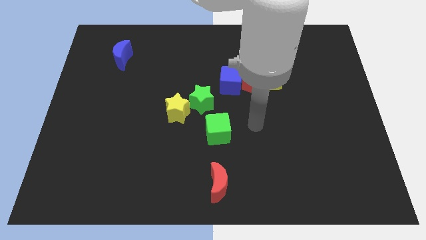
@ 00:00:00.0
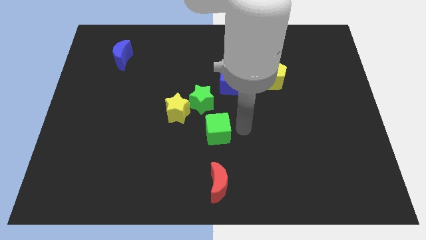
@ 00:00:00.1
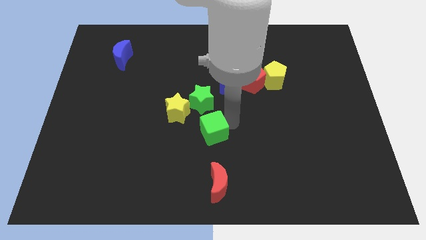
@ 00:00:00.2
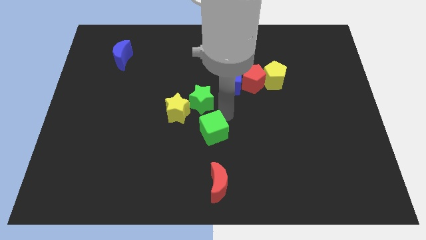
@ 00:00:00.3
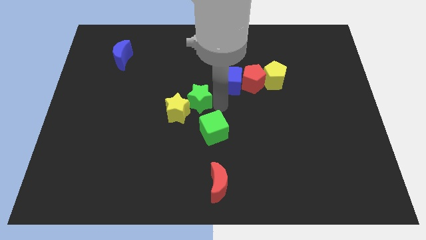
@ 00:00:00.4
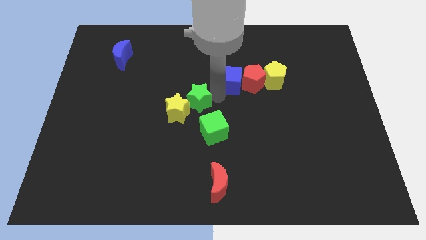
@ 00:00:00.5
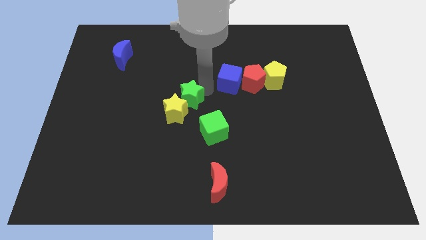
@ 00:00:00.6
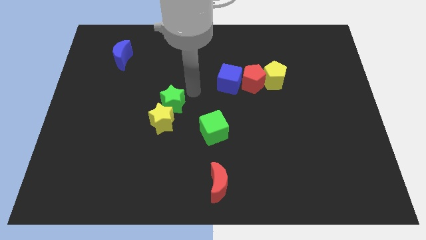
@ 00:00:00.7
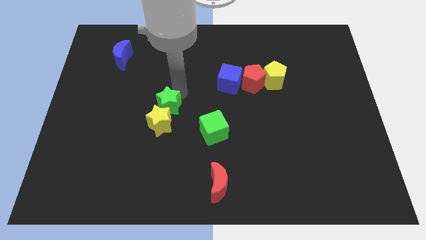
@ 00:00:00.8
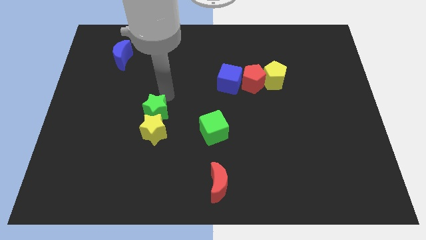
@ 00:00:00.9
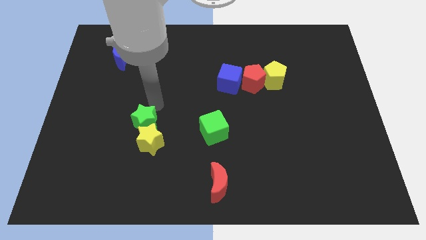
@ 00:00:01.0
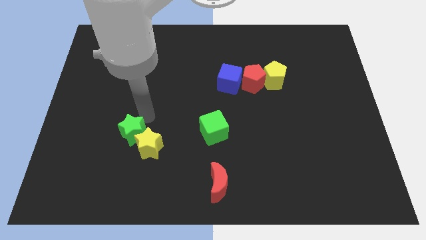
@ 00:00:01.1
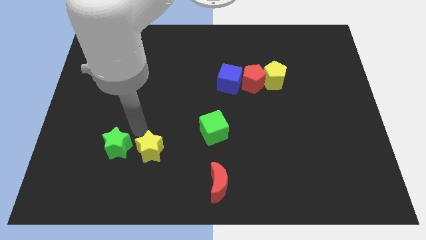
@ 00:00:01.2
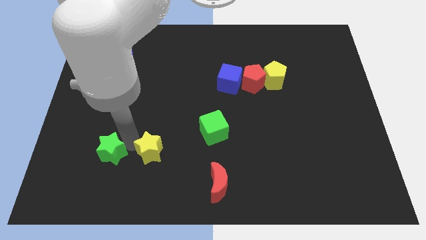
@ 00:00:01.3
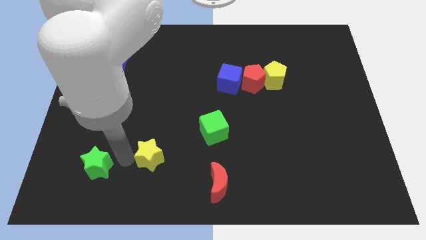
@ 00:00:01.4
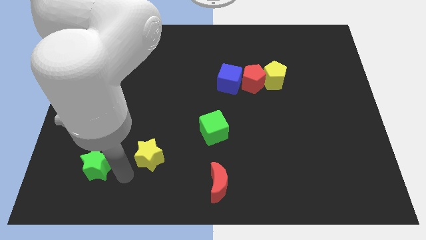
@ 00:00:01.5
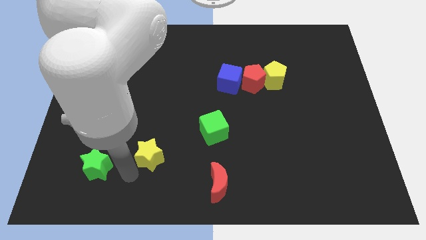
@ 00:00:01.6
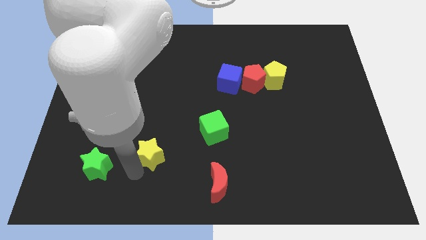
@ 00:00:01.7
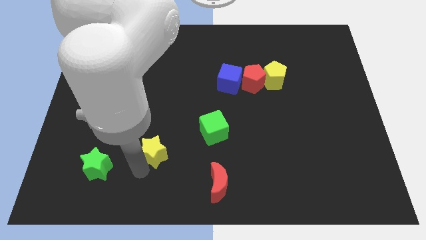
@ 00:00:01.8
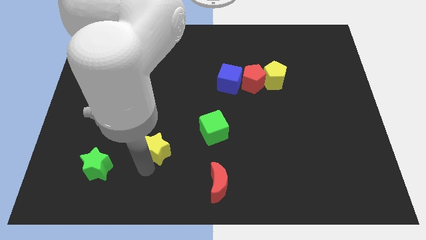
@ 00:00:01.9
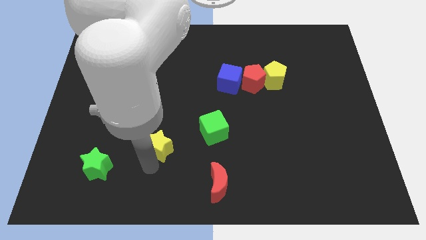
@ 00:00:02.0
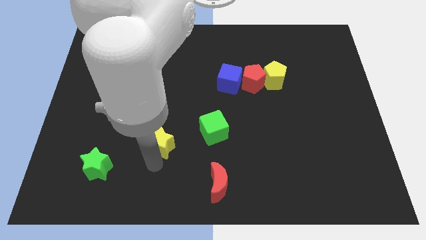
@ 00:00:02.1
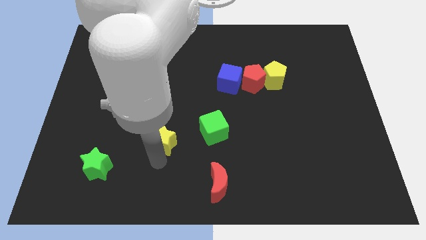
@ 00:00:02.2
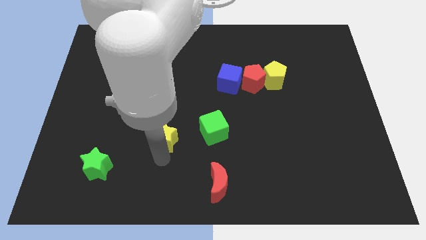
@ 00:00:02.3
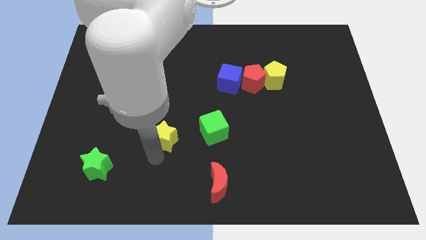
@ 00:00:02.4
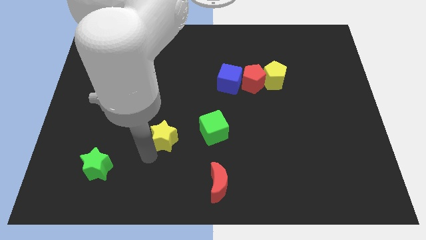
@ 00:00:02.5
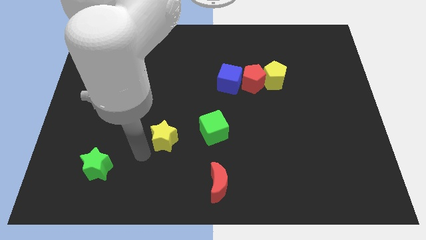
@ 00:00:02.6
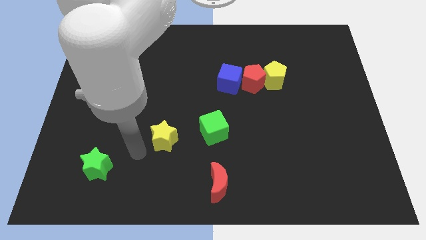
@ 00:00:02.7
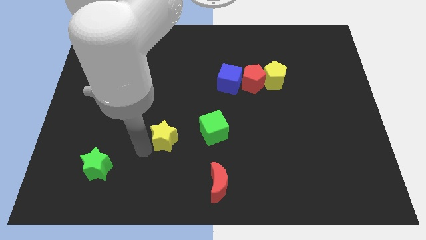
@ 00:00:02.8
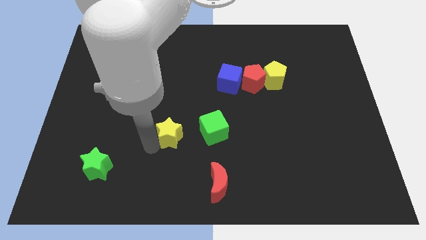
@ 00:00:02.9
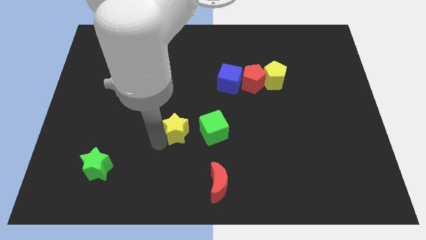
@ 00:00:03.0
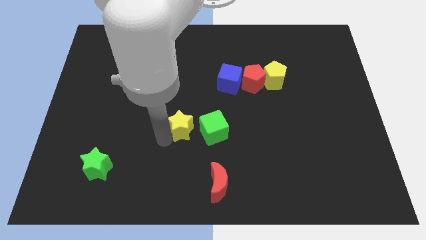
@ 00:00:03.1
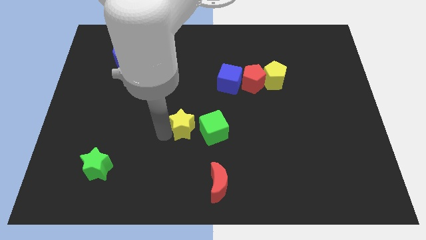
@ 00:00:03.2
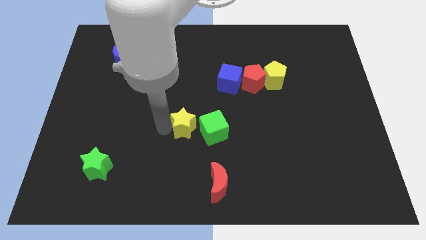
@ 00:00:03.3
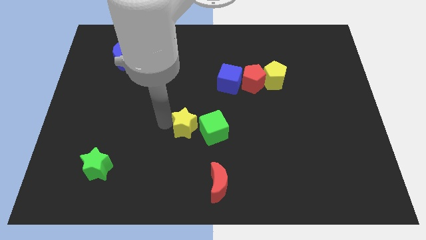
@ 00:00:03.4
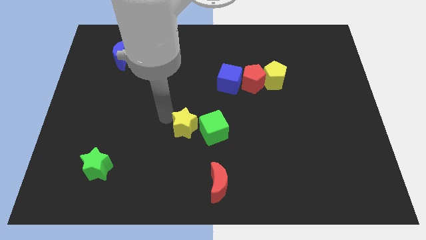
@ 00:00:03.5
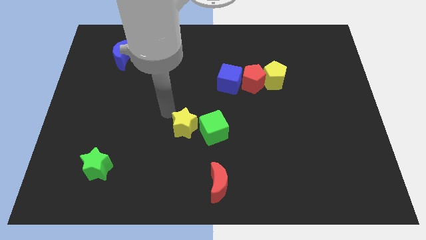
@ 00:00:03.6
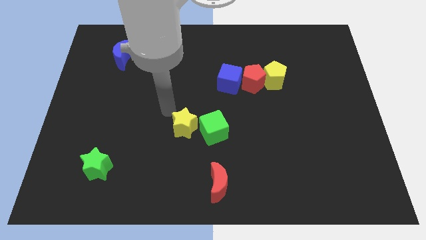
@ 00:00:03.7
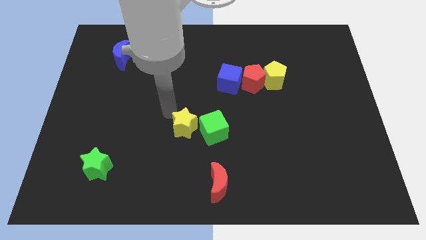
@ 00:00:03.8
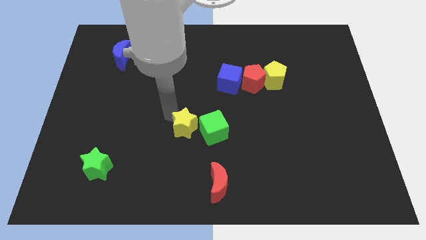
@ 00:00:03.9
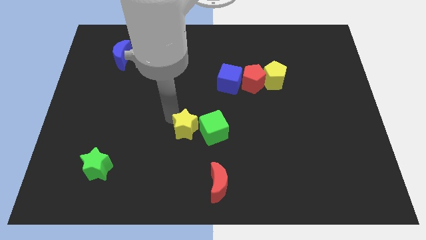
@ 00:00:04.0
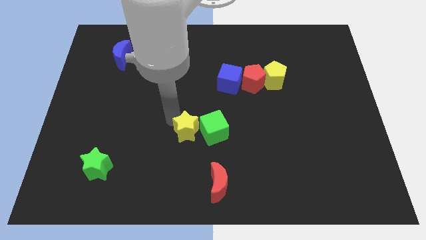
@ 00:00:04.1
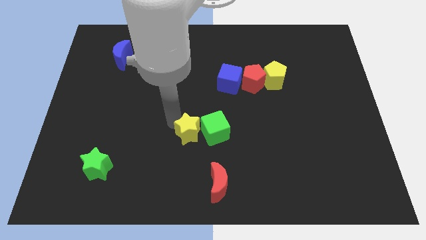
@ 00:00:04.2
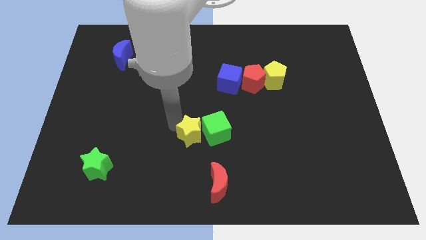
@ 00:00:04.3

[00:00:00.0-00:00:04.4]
slightly move the yellow star downwards and to the right diagonally

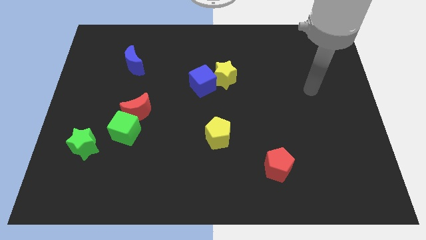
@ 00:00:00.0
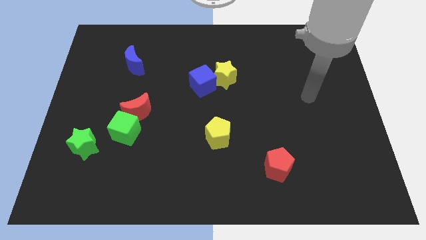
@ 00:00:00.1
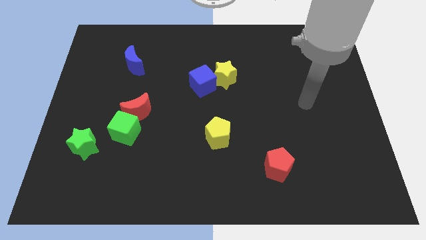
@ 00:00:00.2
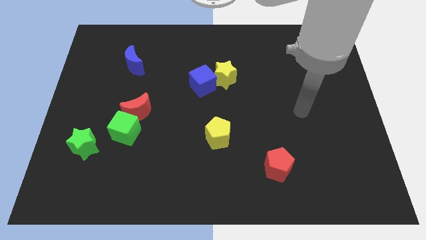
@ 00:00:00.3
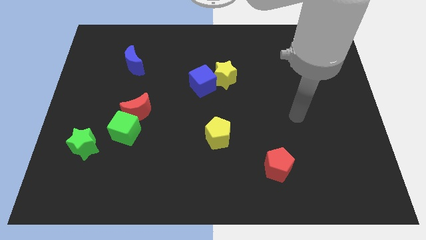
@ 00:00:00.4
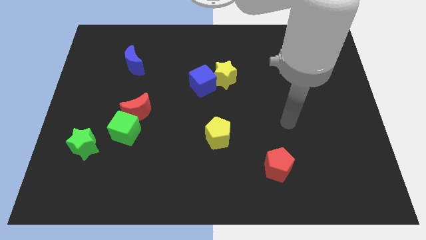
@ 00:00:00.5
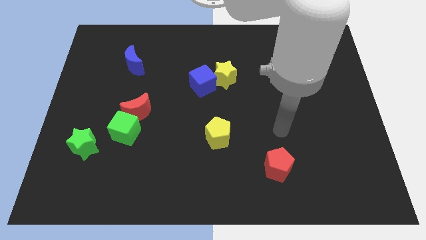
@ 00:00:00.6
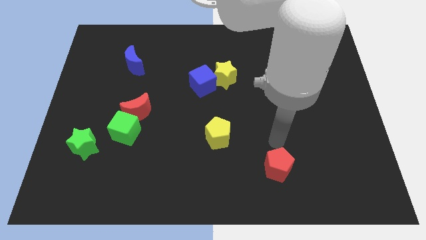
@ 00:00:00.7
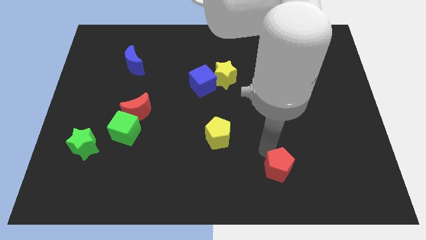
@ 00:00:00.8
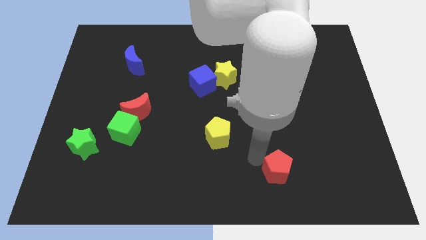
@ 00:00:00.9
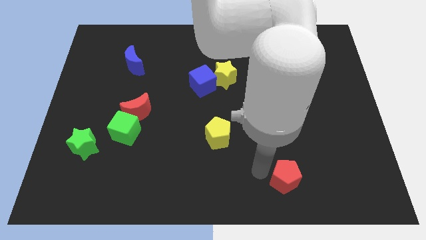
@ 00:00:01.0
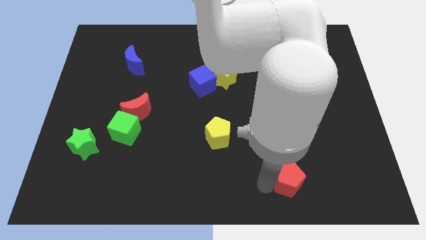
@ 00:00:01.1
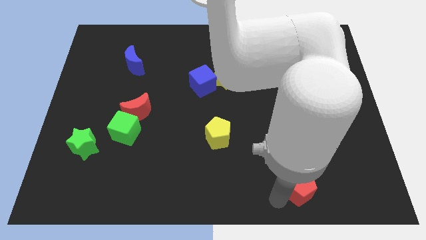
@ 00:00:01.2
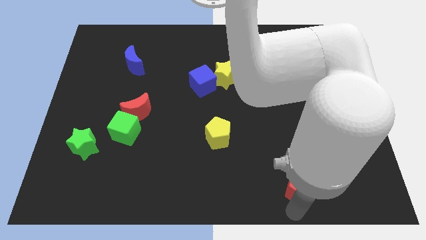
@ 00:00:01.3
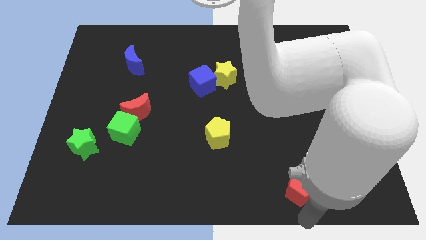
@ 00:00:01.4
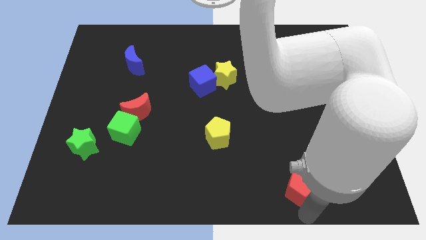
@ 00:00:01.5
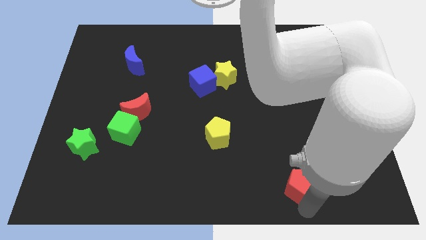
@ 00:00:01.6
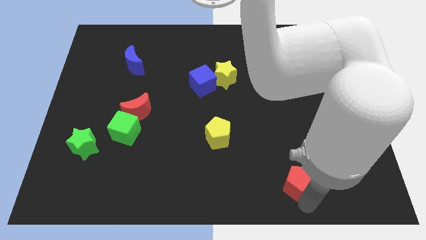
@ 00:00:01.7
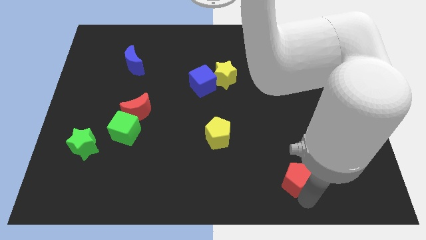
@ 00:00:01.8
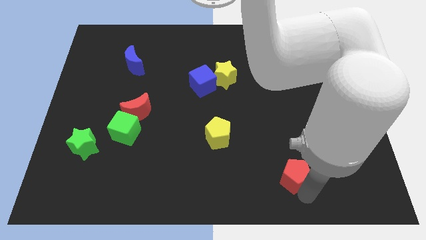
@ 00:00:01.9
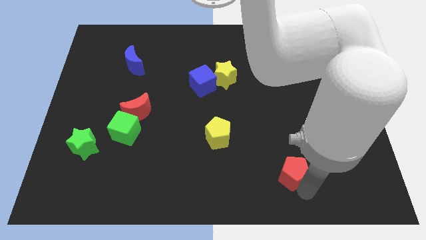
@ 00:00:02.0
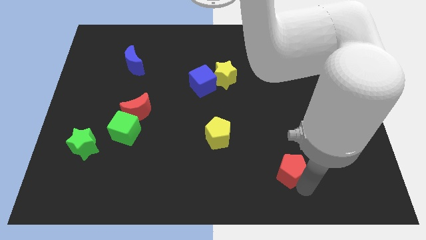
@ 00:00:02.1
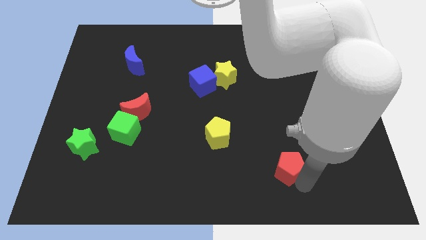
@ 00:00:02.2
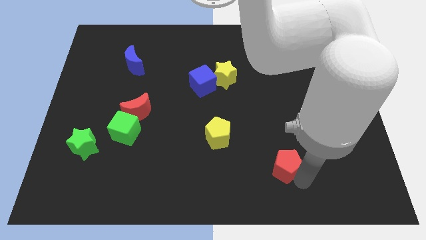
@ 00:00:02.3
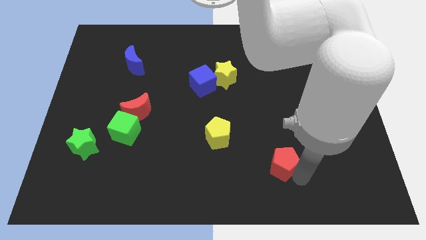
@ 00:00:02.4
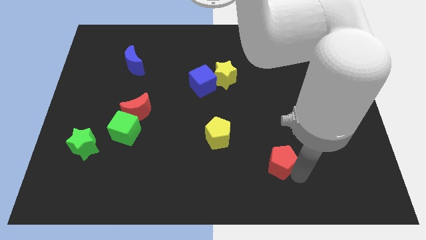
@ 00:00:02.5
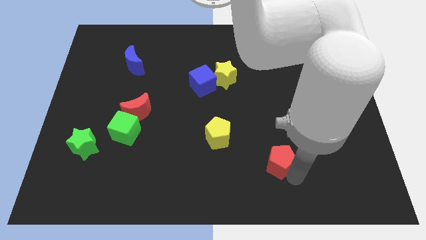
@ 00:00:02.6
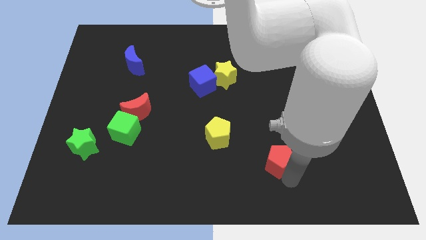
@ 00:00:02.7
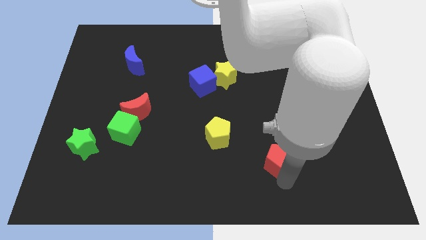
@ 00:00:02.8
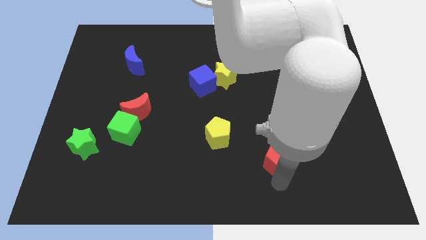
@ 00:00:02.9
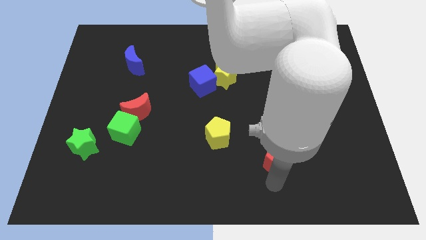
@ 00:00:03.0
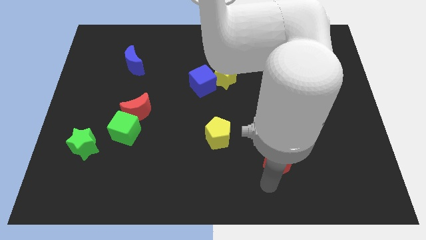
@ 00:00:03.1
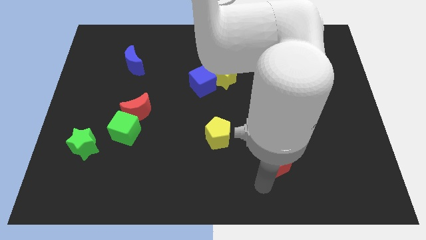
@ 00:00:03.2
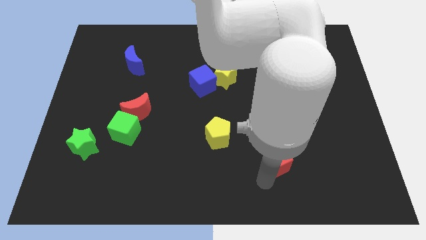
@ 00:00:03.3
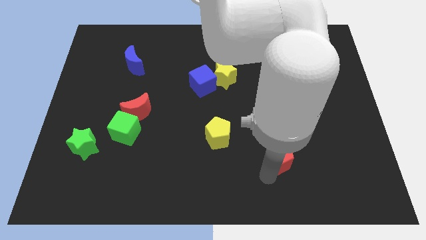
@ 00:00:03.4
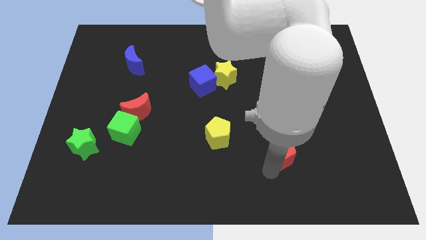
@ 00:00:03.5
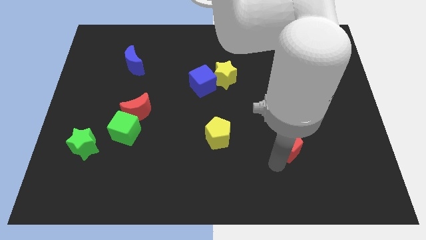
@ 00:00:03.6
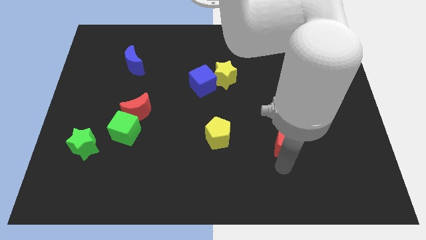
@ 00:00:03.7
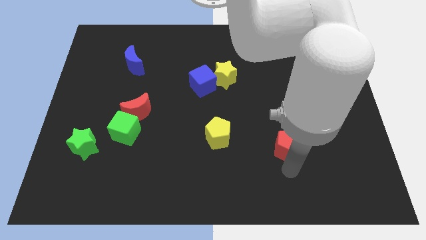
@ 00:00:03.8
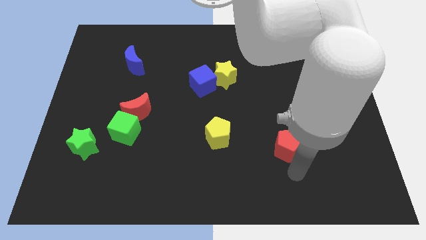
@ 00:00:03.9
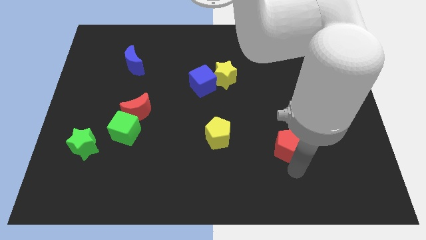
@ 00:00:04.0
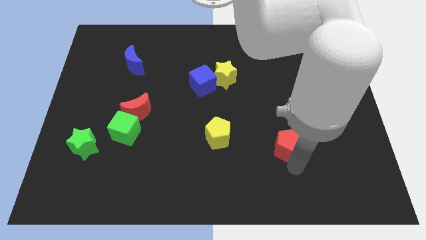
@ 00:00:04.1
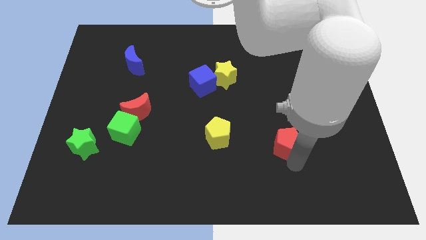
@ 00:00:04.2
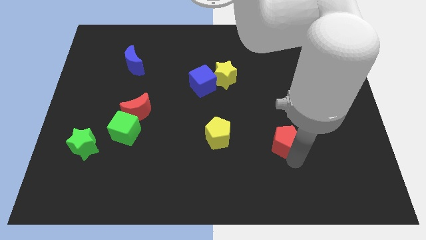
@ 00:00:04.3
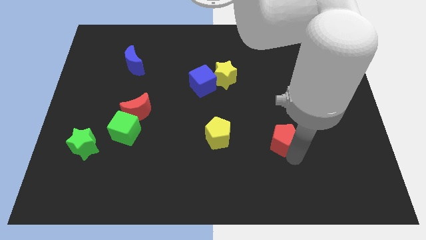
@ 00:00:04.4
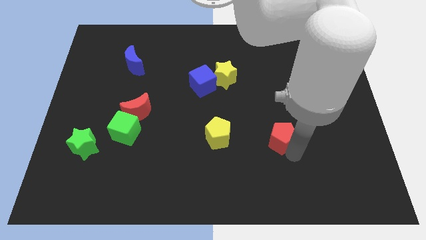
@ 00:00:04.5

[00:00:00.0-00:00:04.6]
move the red pentagon a bit upwards
